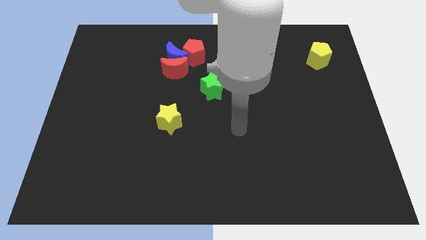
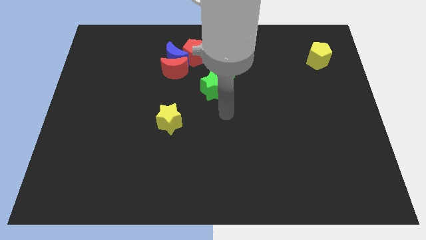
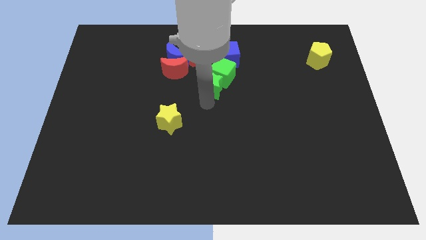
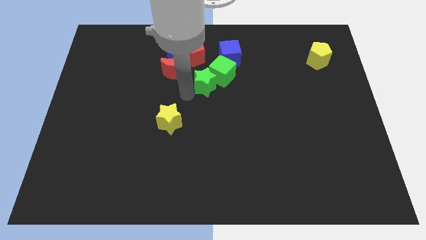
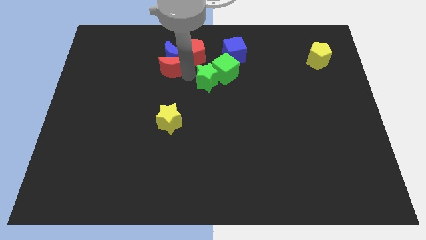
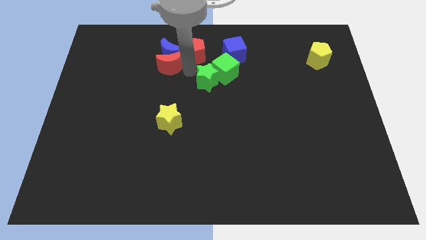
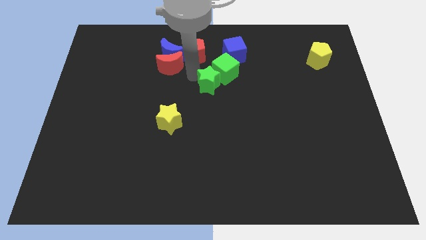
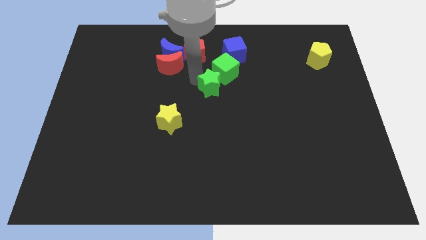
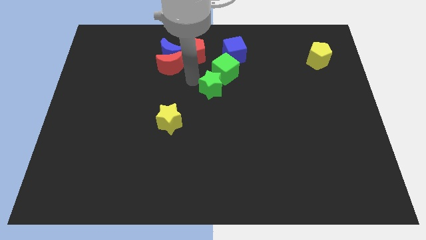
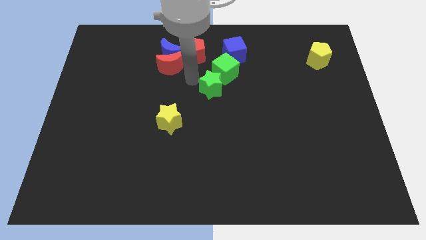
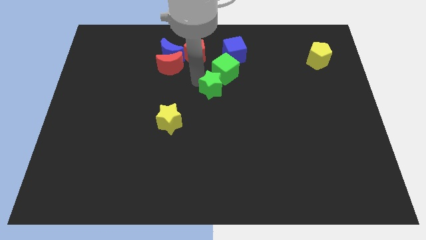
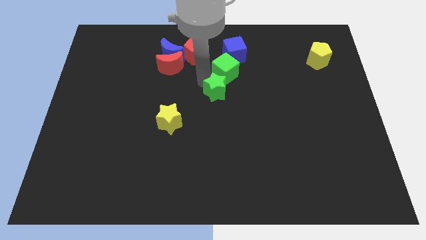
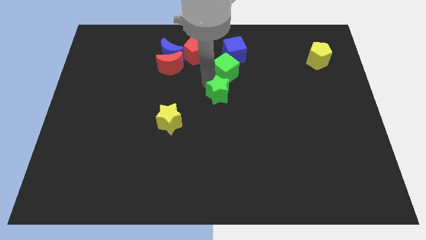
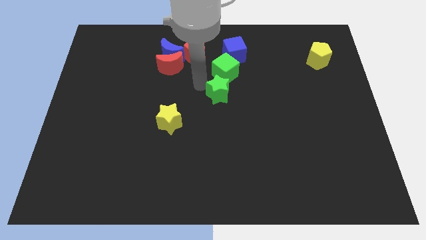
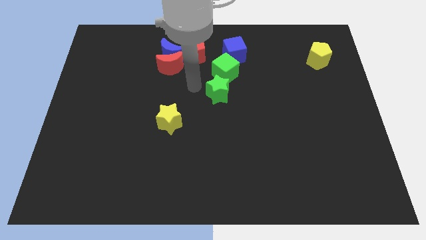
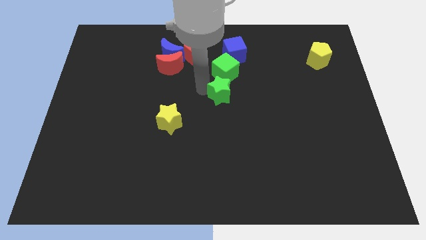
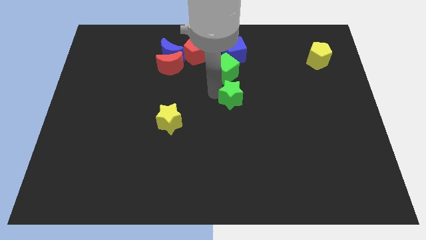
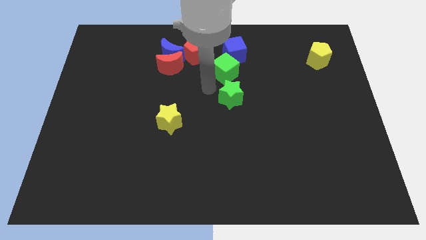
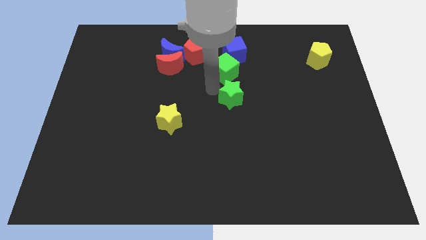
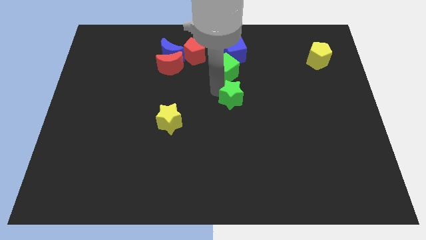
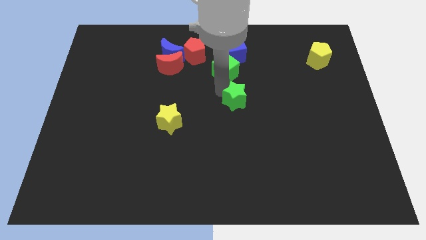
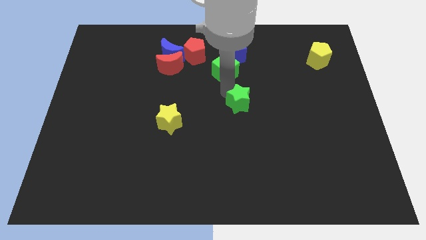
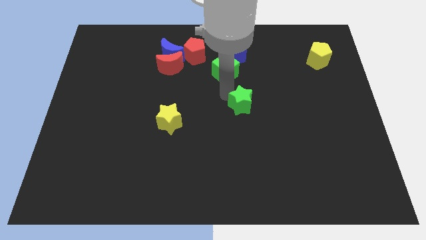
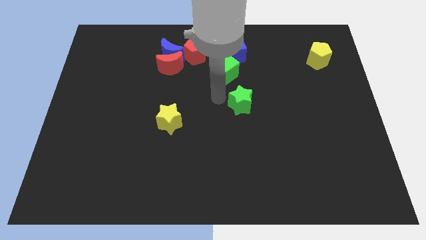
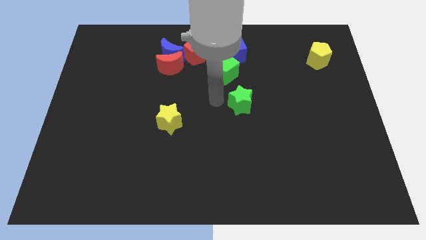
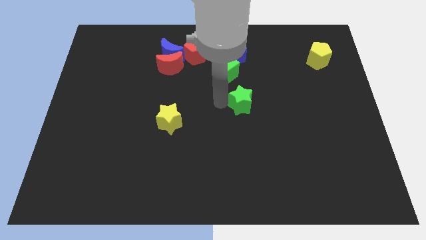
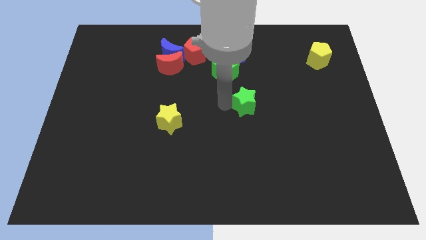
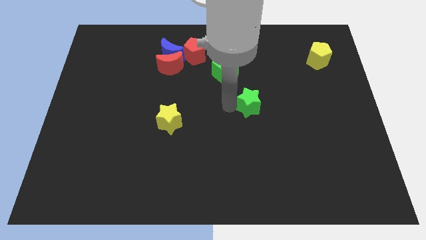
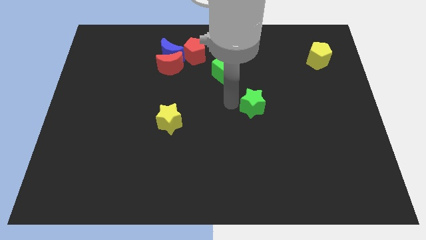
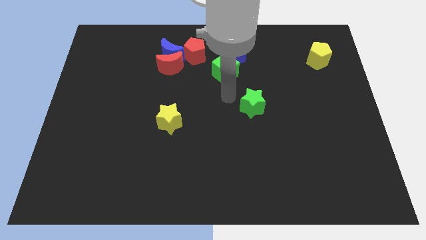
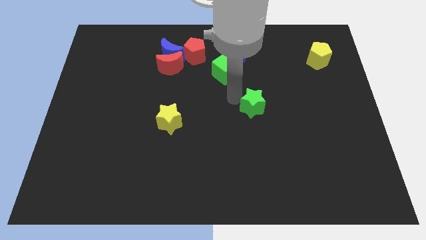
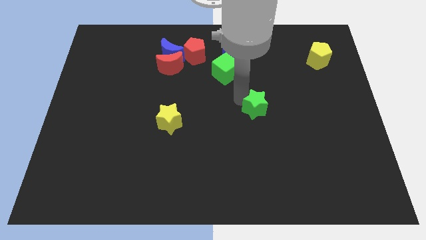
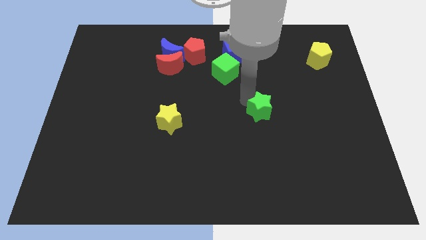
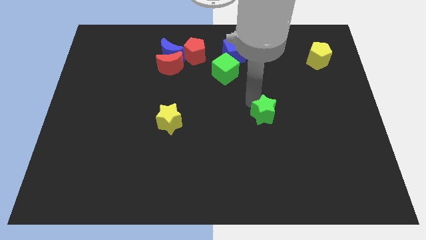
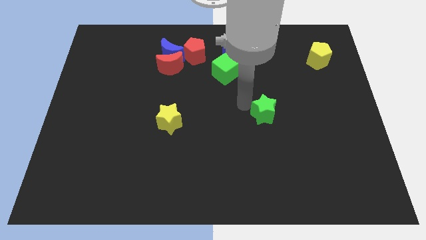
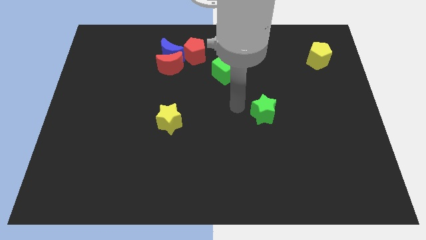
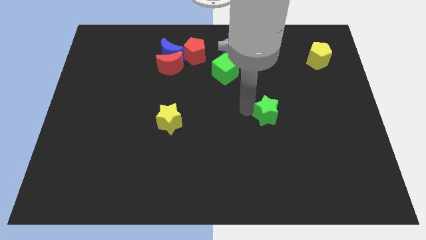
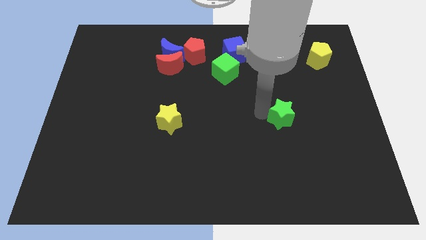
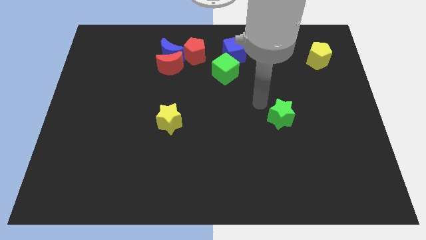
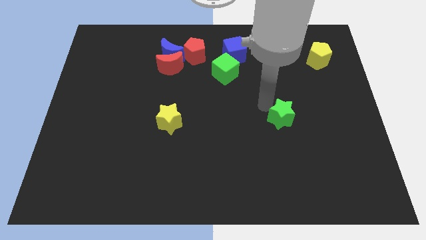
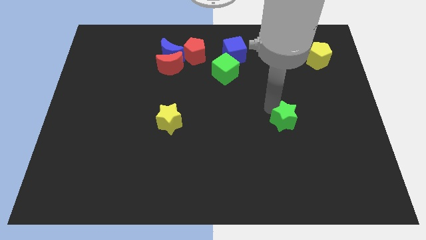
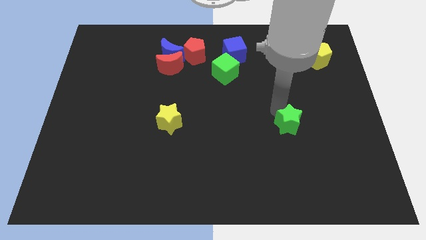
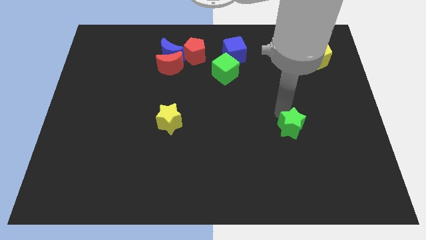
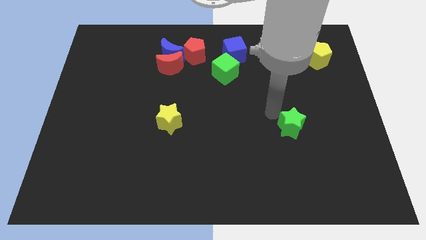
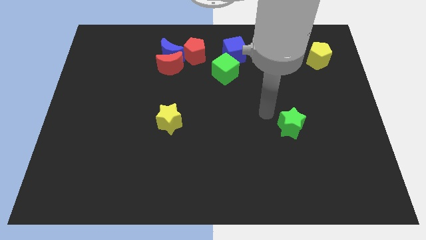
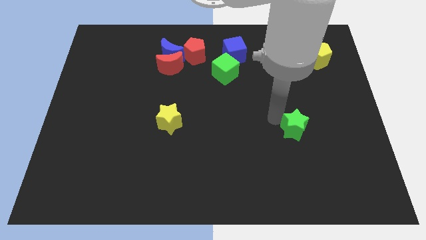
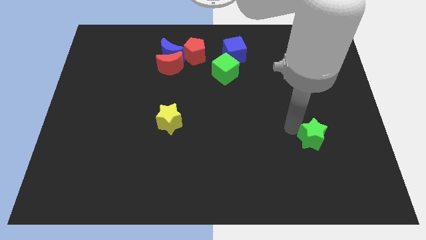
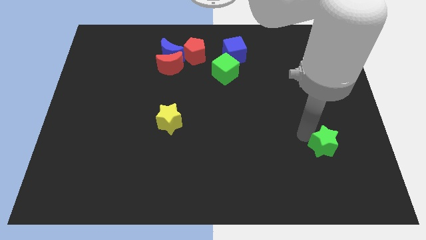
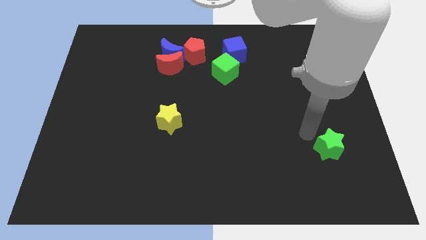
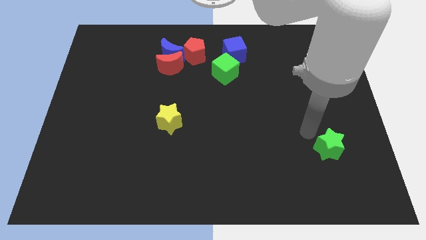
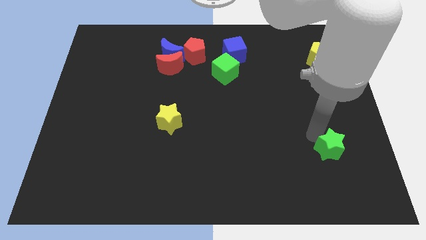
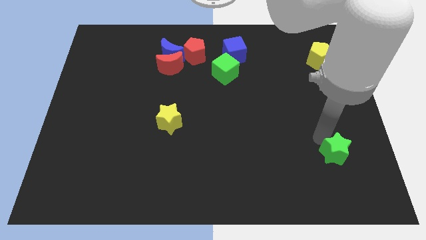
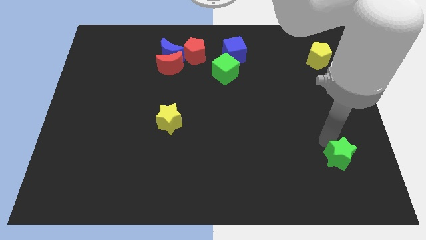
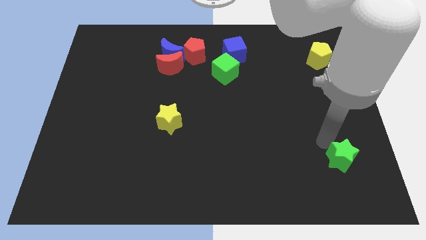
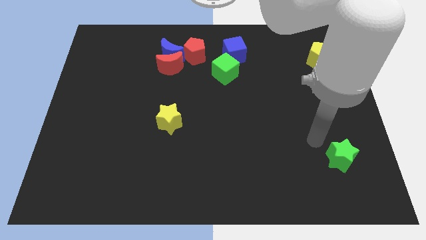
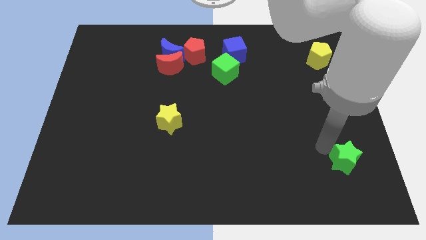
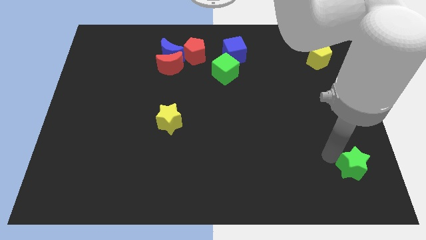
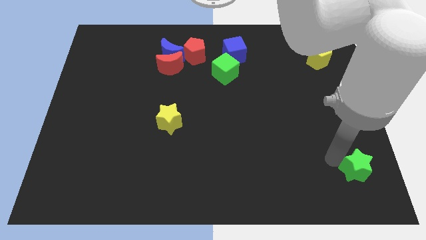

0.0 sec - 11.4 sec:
push the green star to the bottom right corner

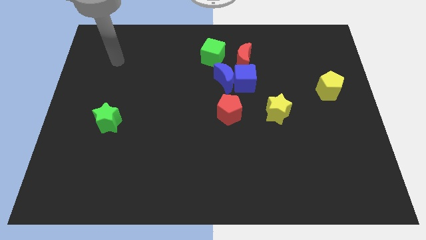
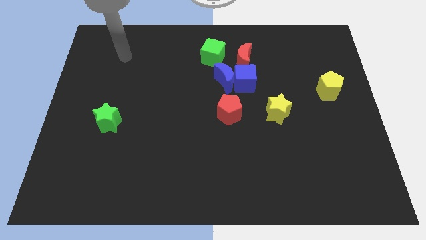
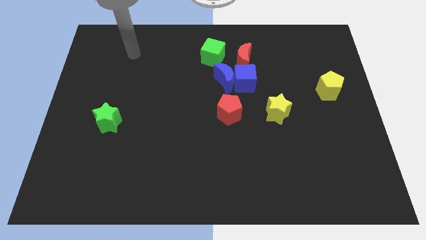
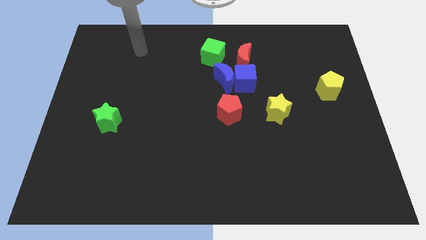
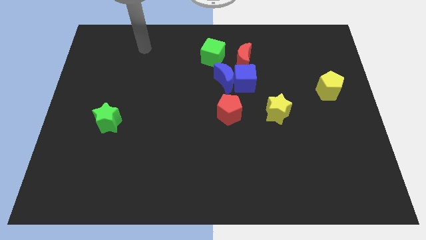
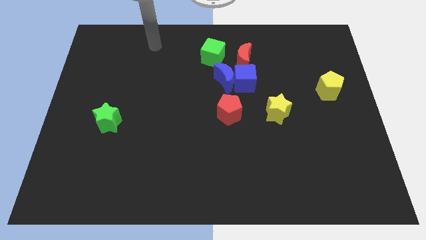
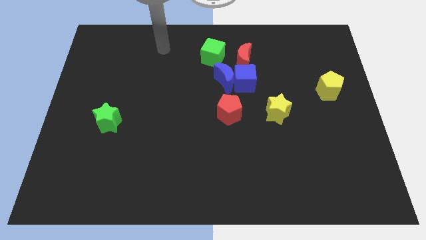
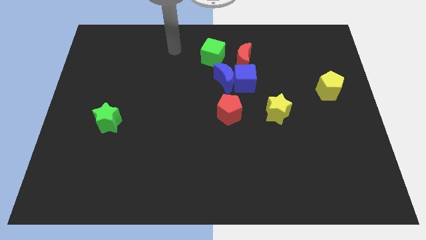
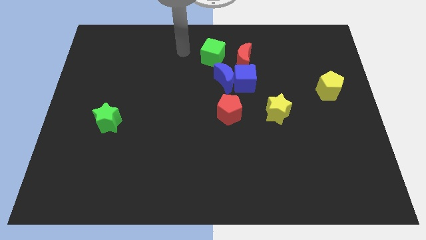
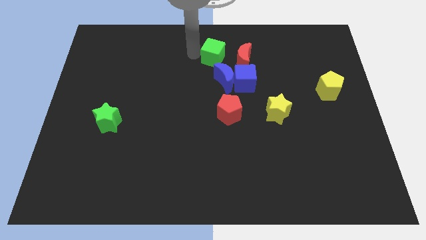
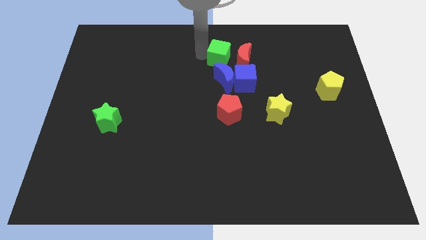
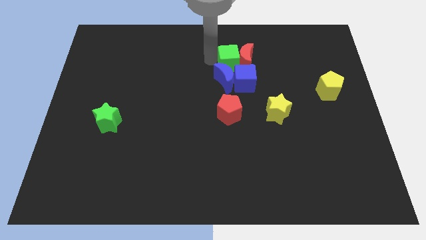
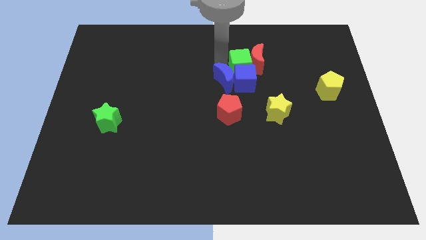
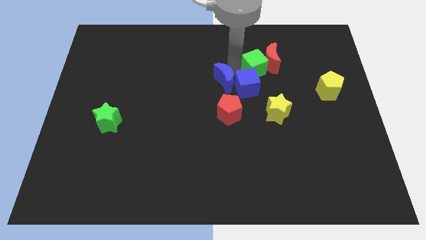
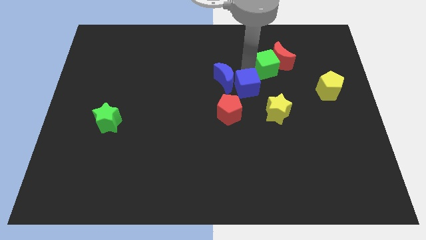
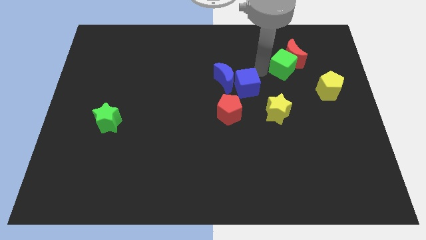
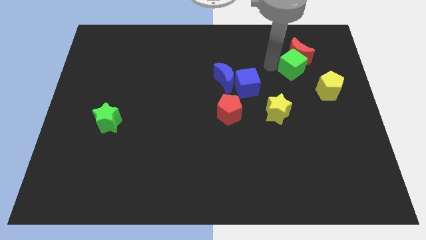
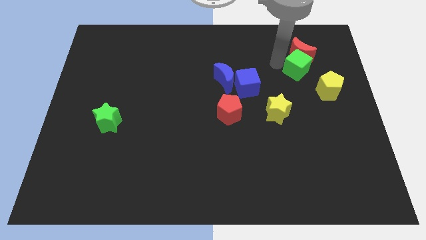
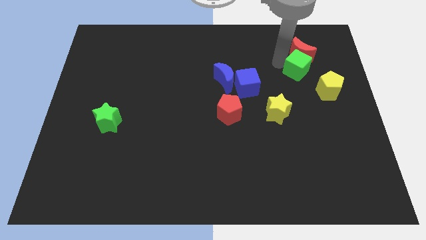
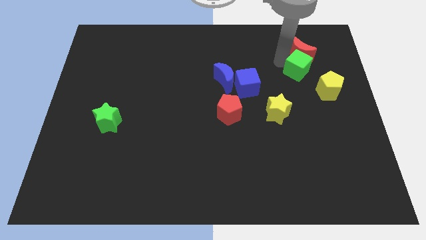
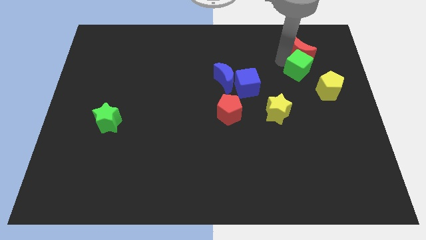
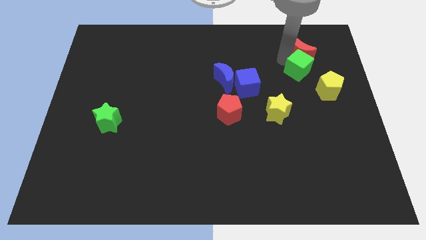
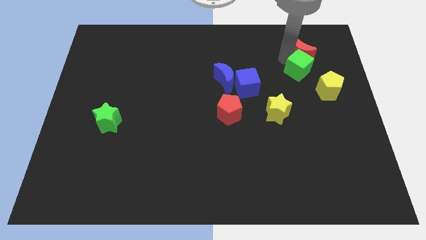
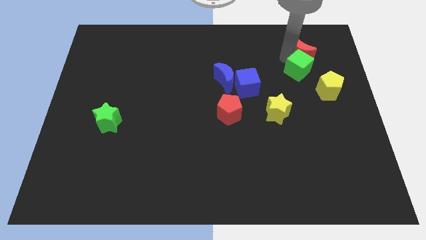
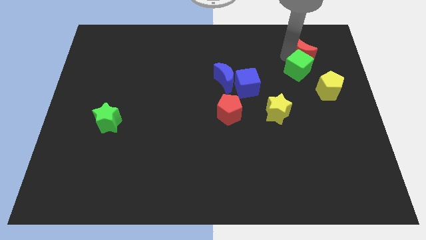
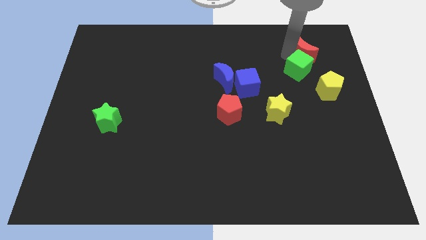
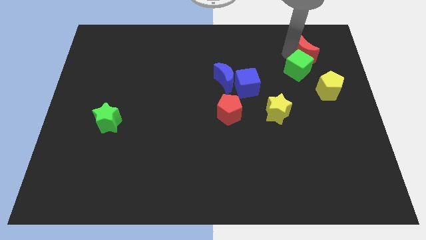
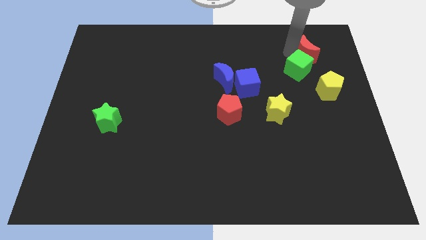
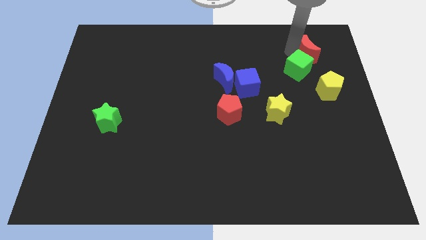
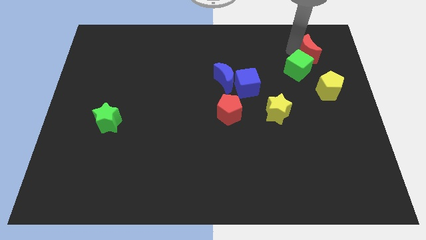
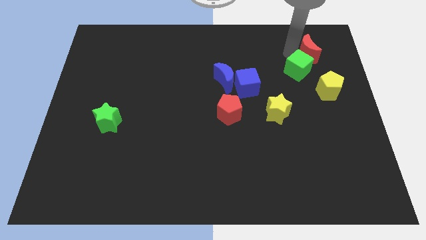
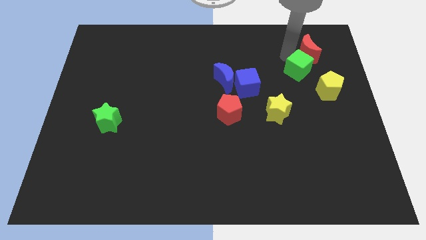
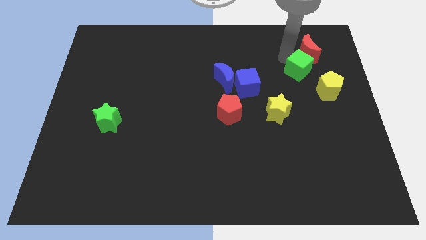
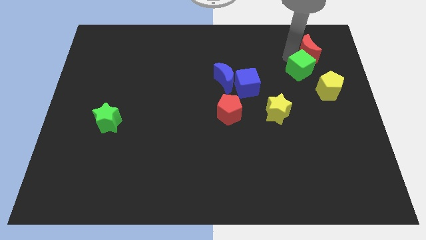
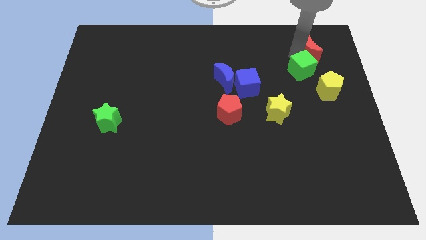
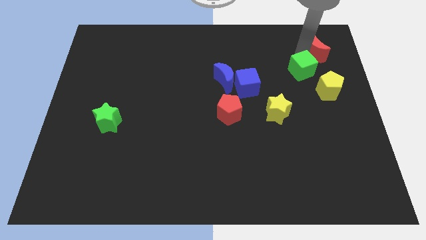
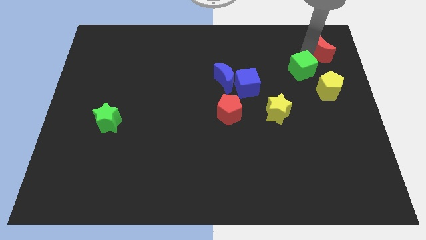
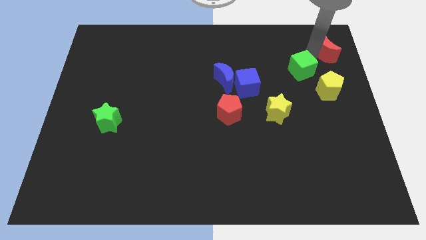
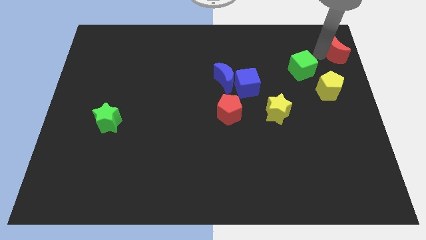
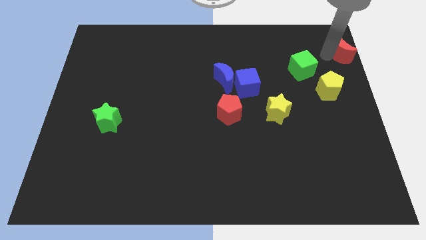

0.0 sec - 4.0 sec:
push the red moon to the top right of the board
